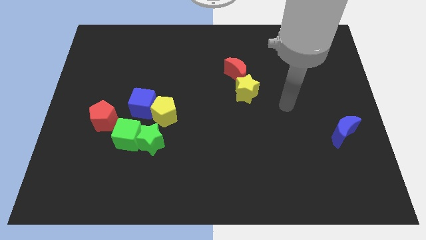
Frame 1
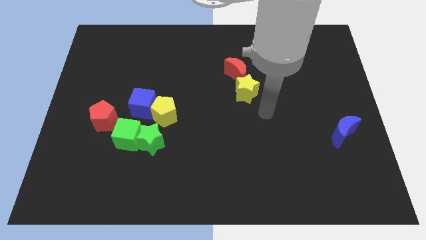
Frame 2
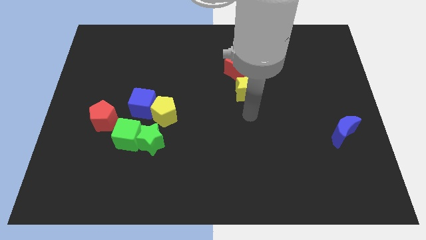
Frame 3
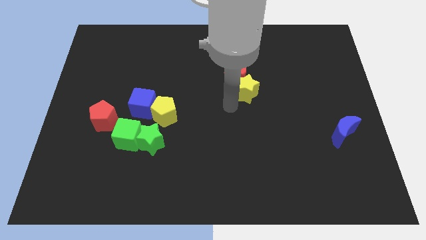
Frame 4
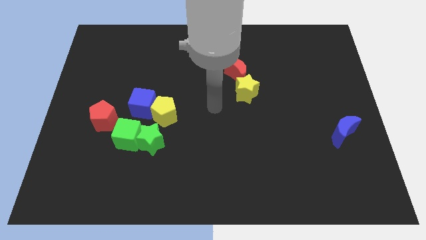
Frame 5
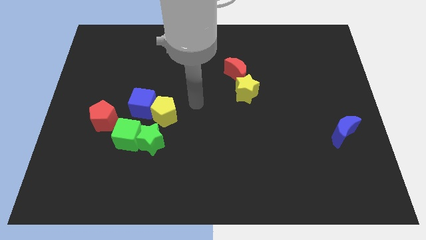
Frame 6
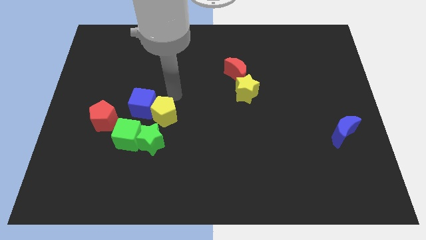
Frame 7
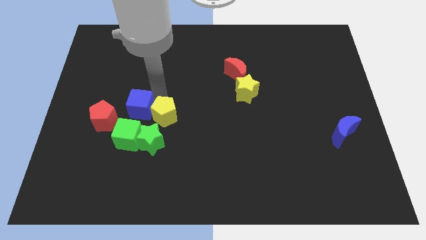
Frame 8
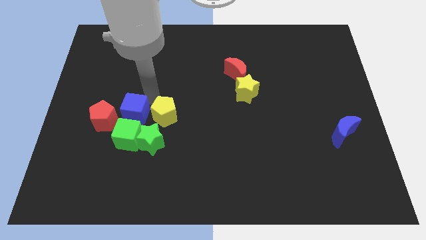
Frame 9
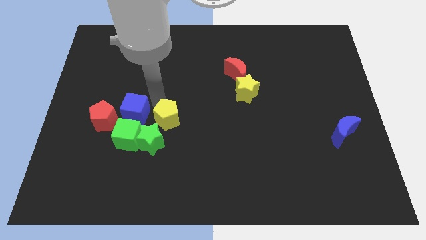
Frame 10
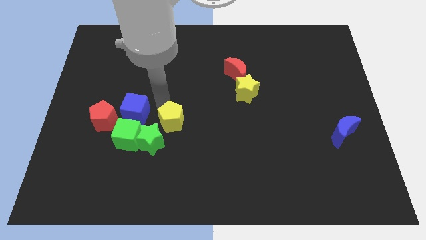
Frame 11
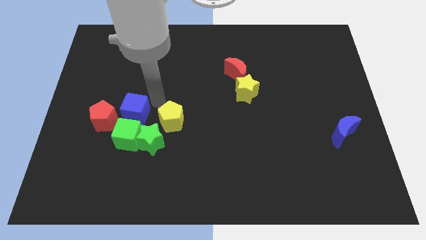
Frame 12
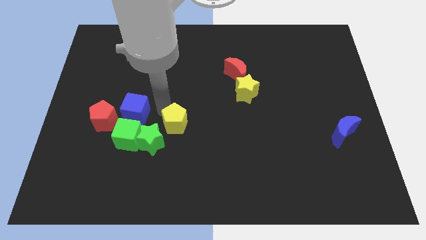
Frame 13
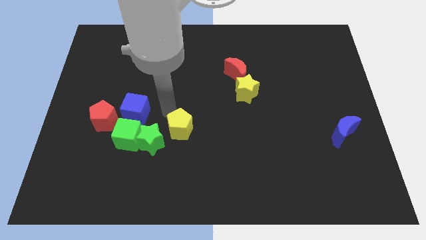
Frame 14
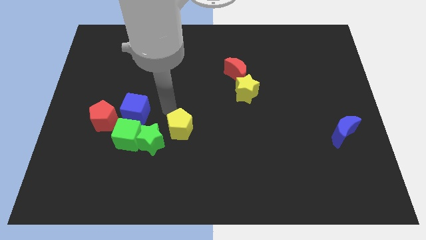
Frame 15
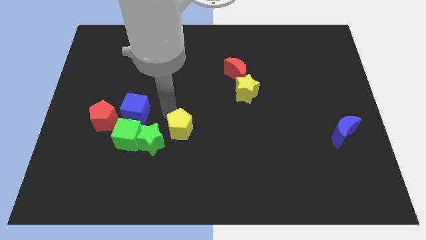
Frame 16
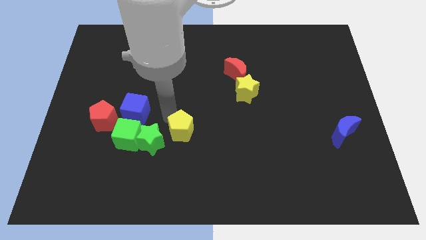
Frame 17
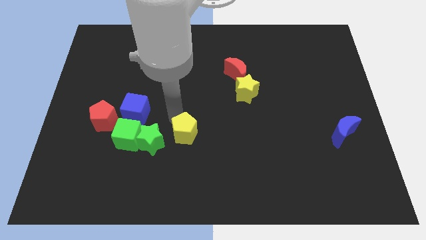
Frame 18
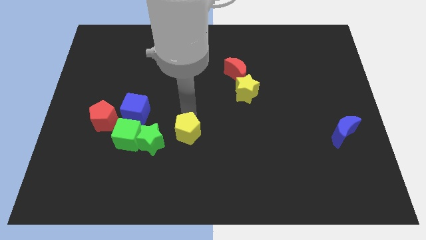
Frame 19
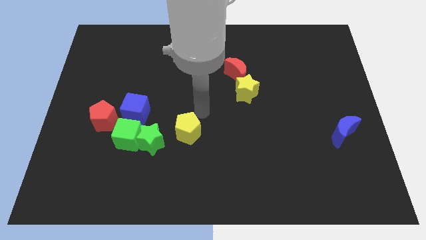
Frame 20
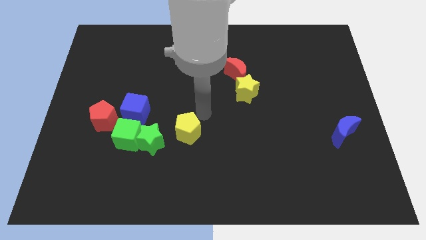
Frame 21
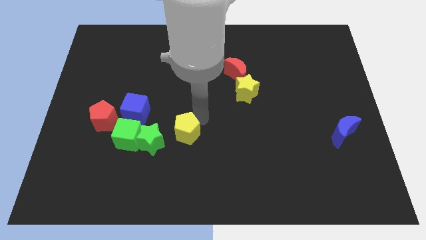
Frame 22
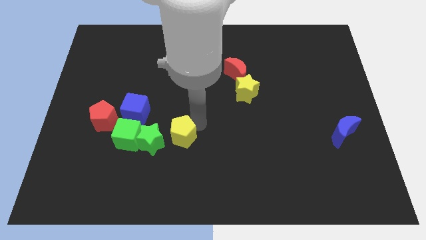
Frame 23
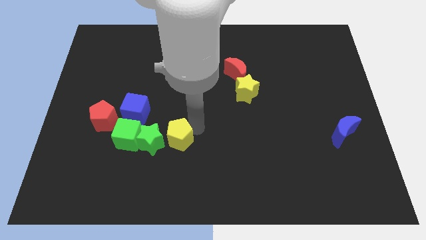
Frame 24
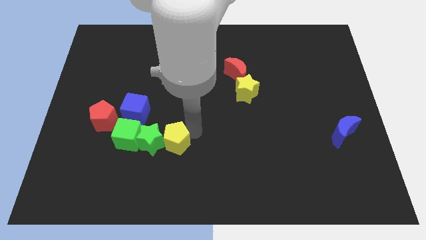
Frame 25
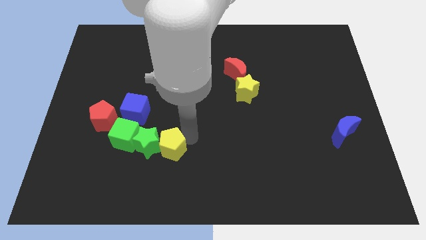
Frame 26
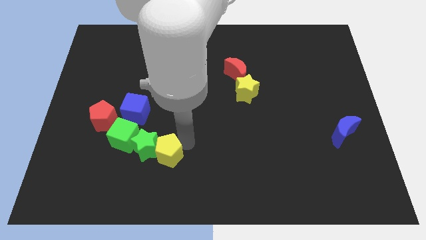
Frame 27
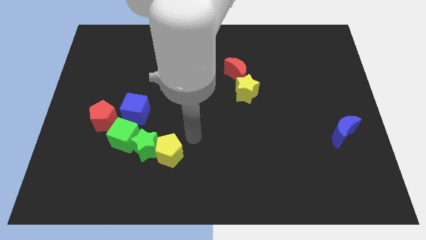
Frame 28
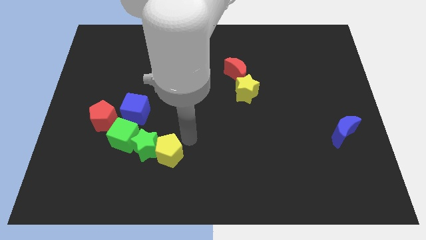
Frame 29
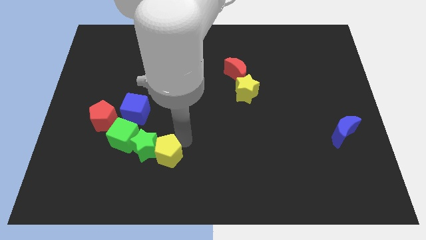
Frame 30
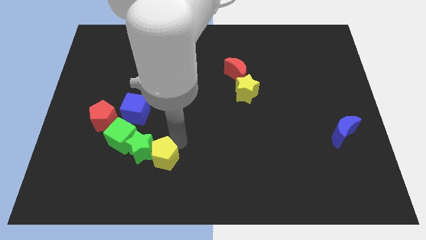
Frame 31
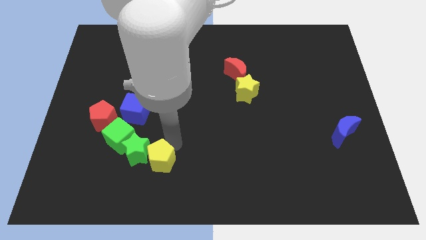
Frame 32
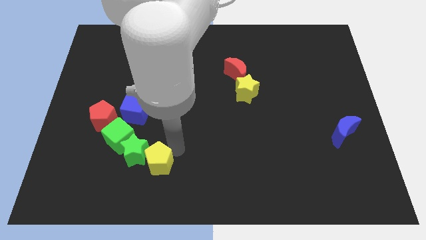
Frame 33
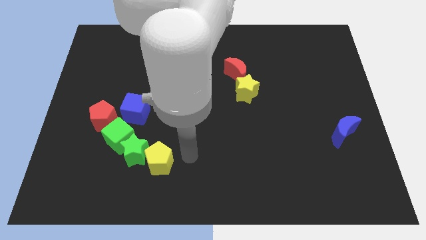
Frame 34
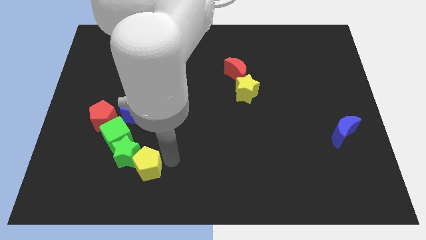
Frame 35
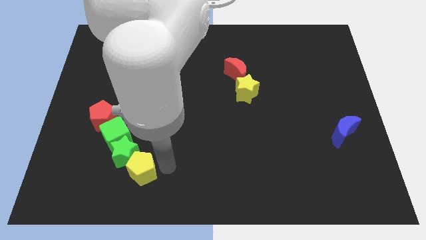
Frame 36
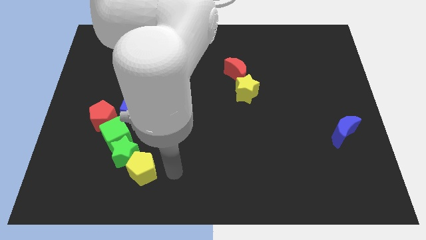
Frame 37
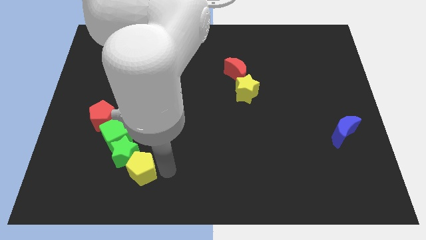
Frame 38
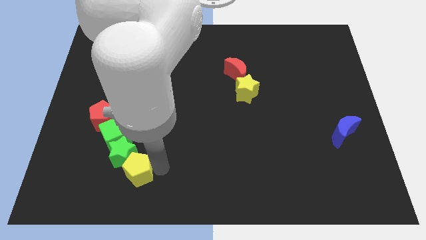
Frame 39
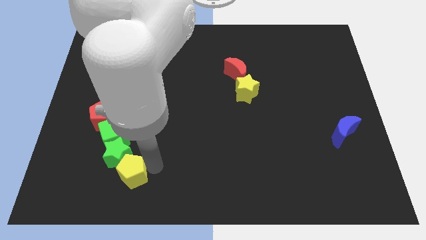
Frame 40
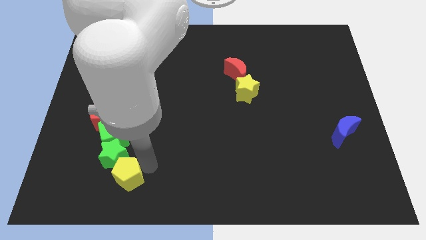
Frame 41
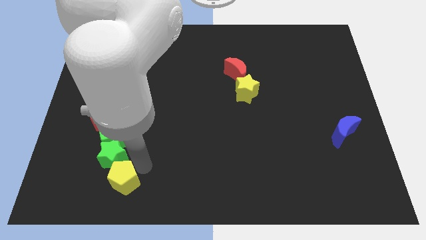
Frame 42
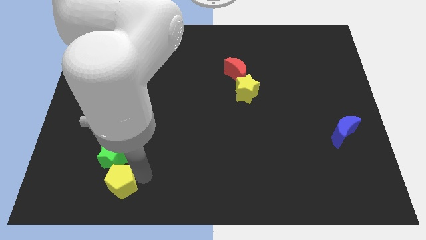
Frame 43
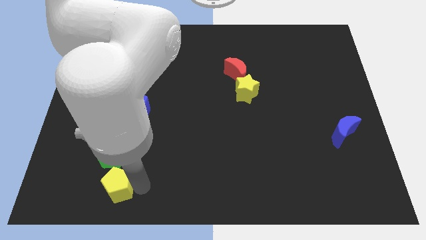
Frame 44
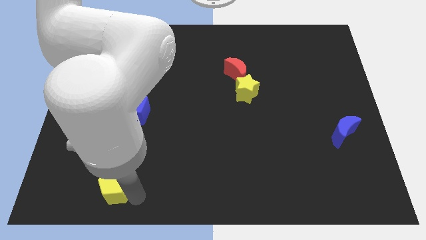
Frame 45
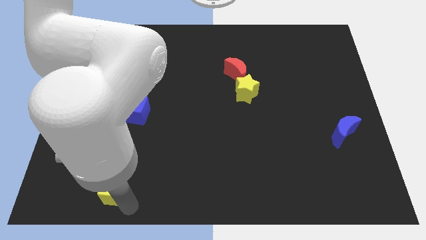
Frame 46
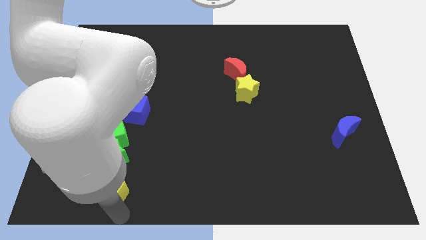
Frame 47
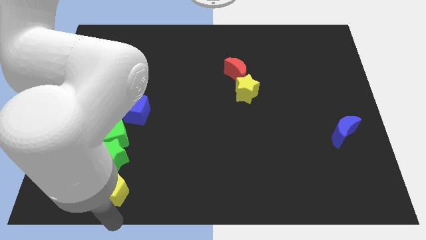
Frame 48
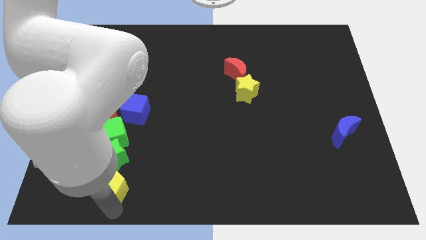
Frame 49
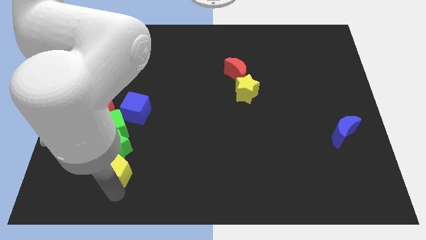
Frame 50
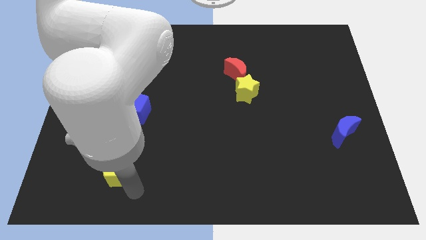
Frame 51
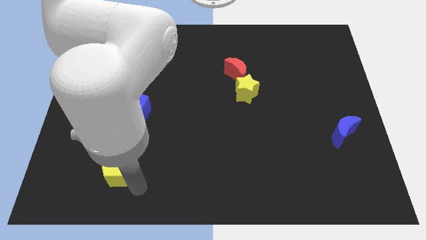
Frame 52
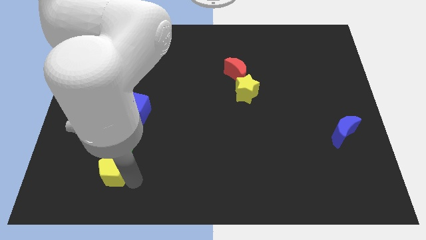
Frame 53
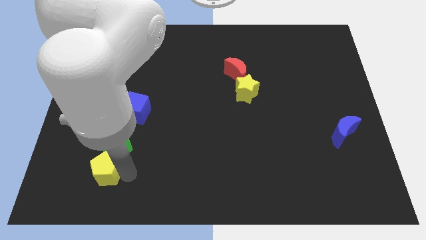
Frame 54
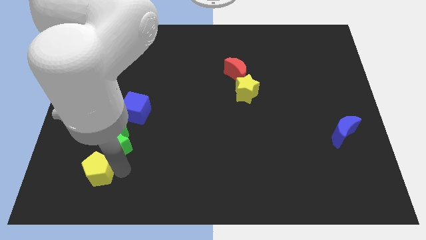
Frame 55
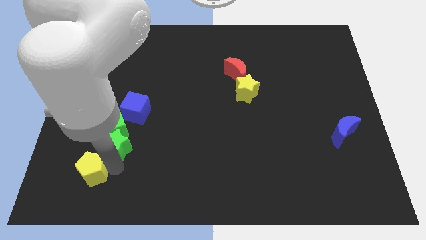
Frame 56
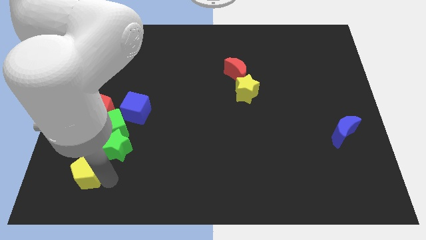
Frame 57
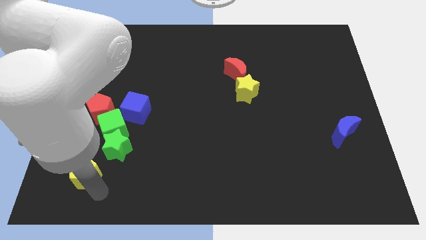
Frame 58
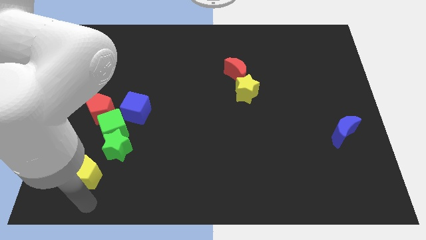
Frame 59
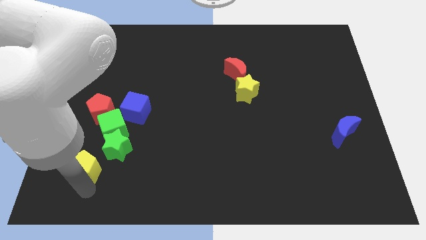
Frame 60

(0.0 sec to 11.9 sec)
push the yellow pentagon to the bottom left of the green cube

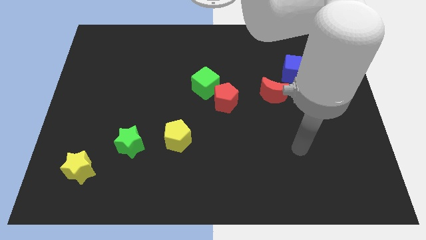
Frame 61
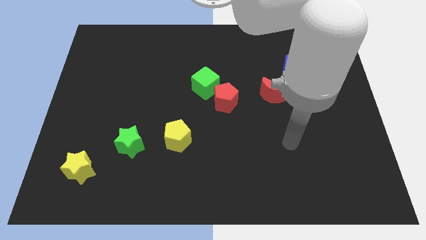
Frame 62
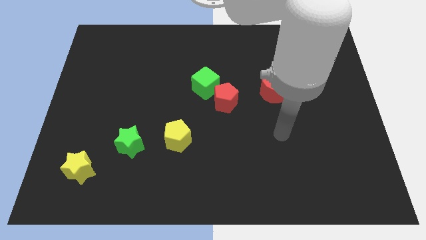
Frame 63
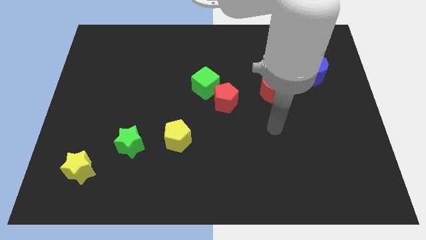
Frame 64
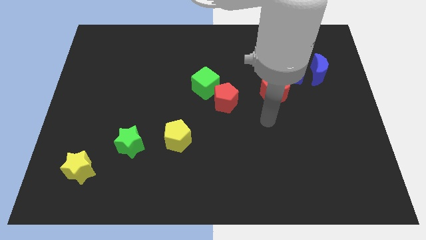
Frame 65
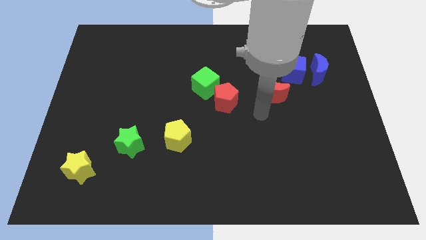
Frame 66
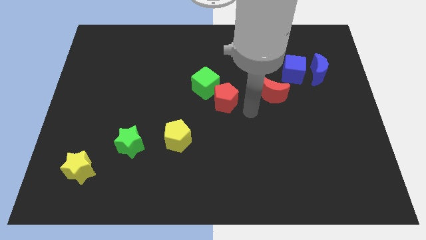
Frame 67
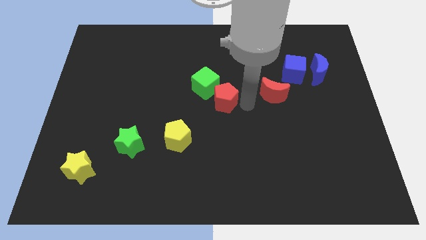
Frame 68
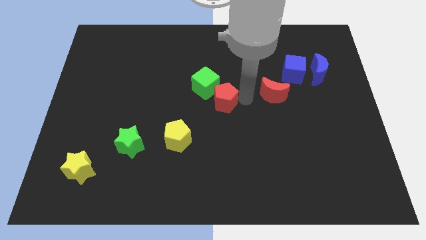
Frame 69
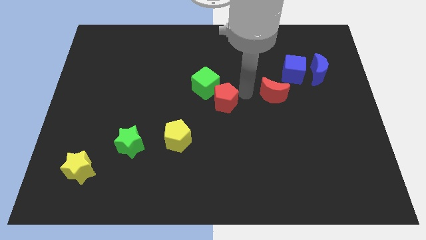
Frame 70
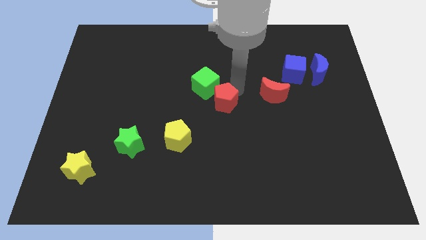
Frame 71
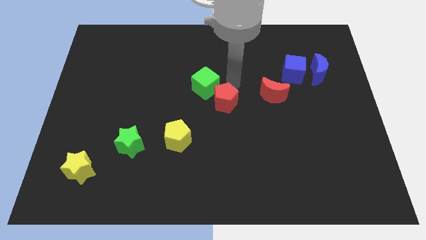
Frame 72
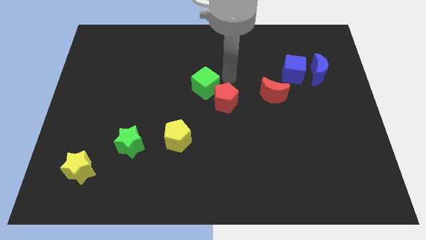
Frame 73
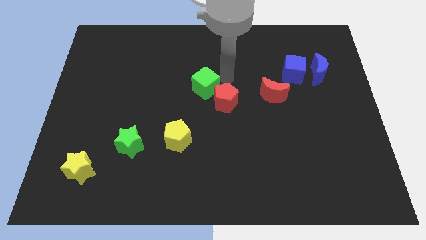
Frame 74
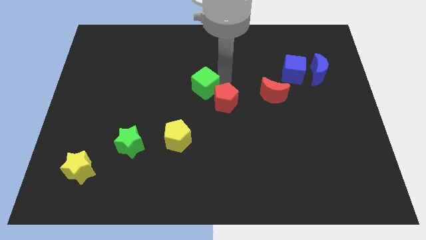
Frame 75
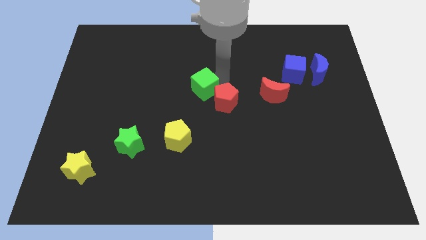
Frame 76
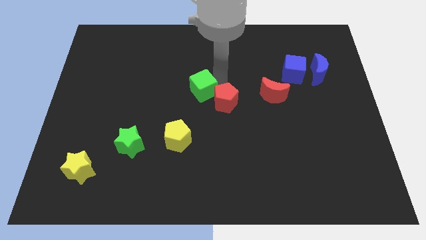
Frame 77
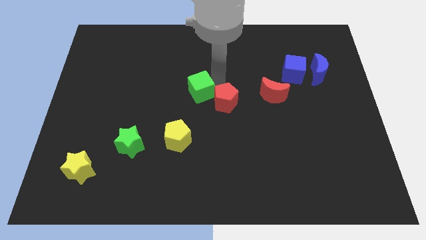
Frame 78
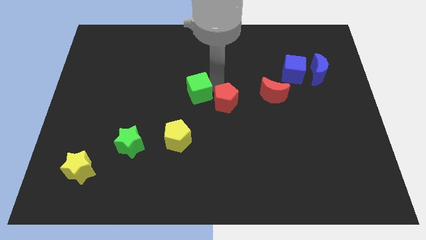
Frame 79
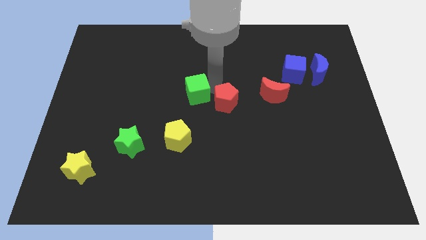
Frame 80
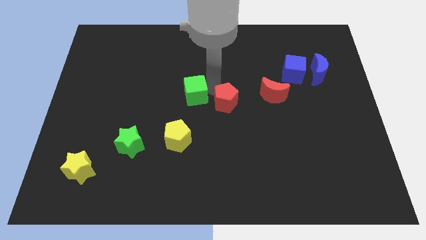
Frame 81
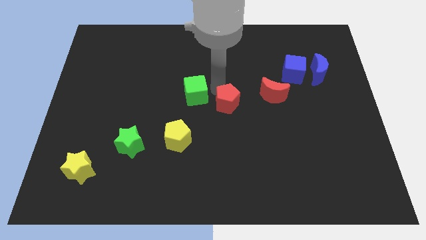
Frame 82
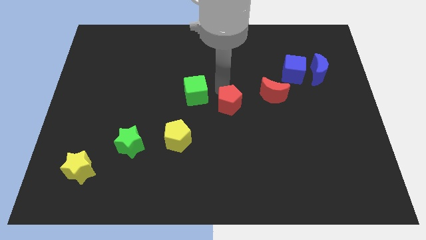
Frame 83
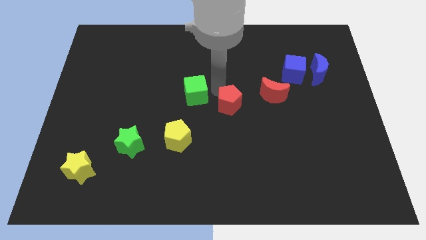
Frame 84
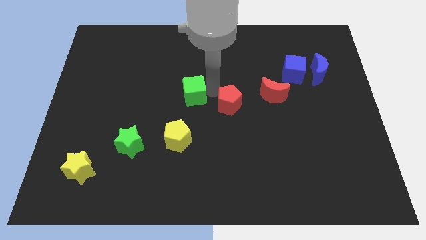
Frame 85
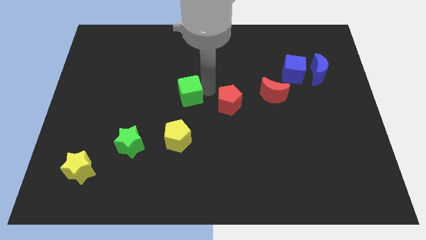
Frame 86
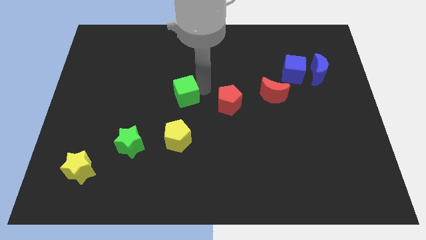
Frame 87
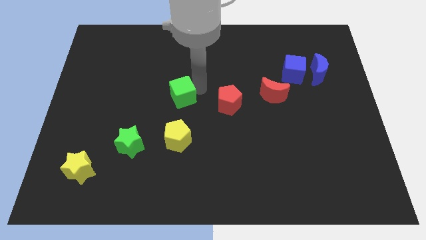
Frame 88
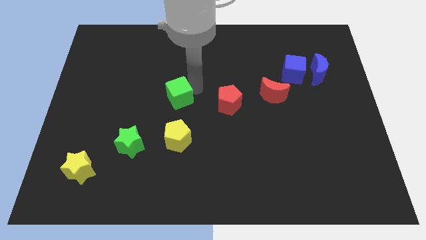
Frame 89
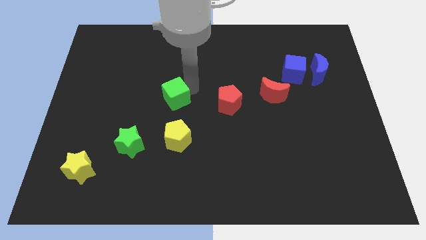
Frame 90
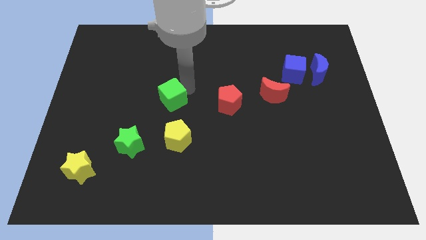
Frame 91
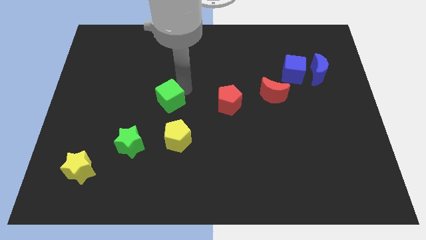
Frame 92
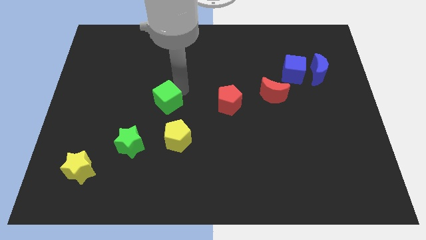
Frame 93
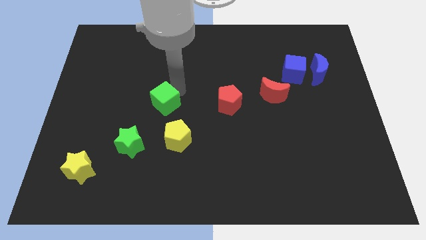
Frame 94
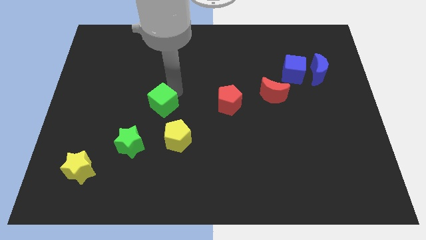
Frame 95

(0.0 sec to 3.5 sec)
move the green cube diagonally up and to the left of the yellow pentagon
